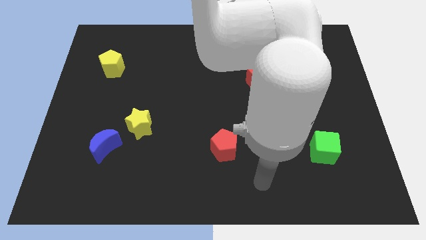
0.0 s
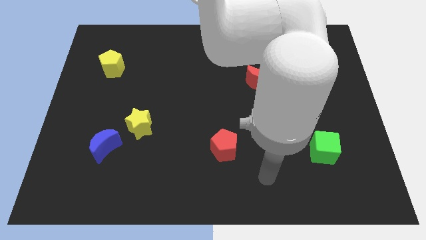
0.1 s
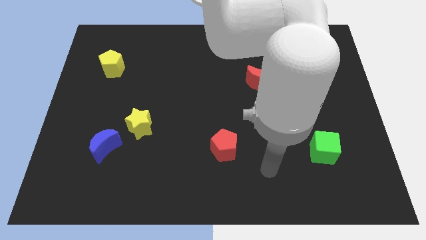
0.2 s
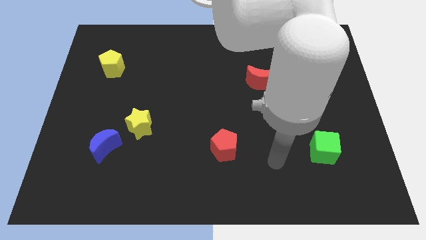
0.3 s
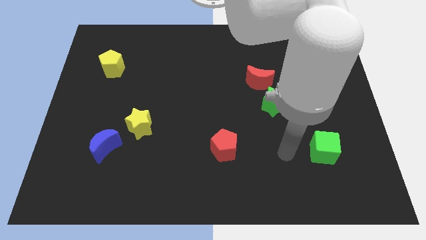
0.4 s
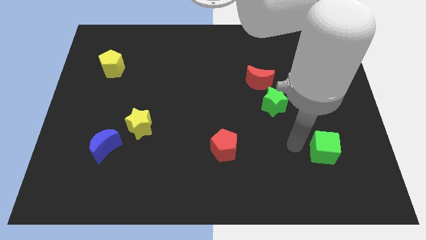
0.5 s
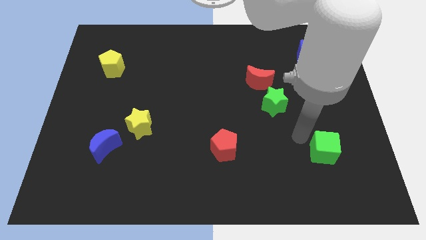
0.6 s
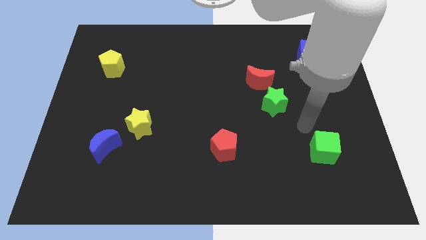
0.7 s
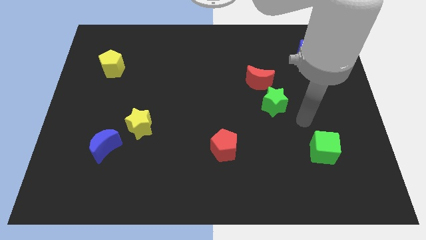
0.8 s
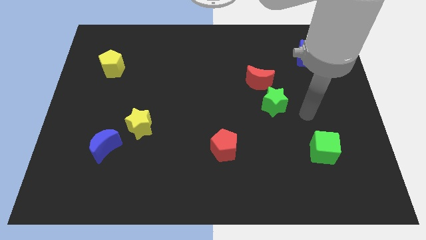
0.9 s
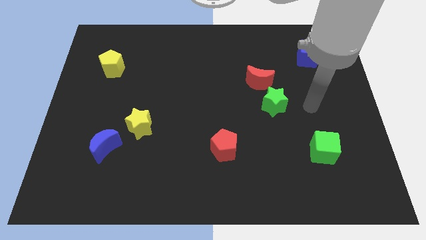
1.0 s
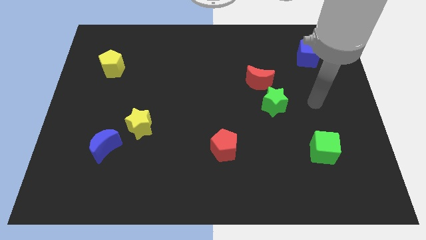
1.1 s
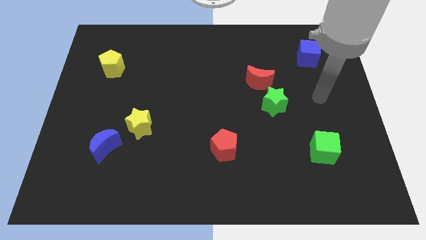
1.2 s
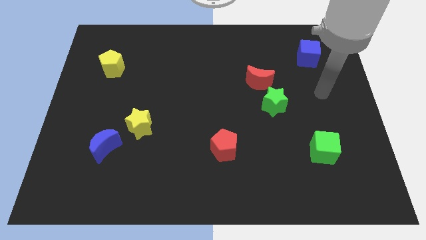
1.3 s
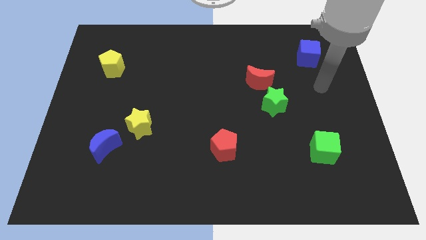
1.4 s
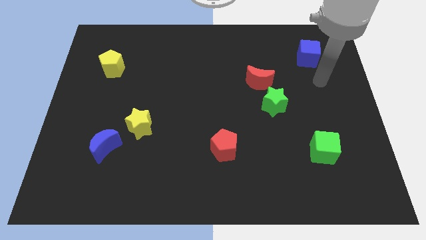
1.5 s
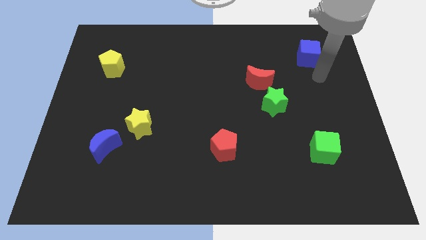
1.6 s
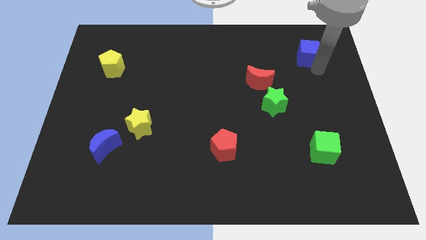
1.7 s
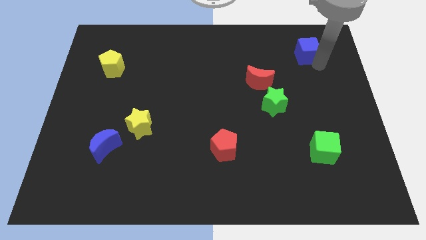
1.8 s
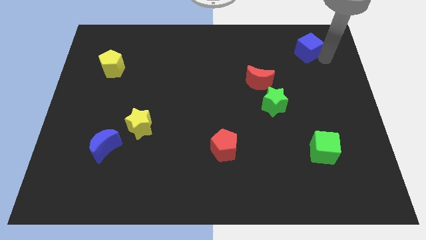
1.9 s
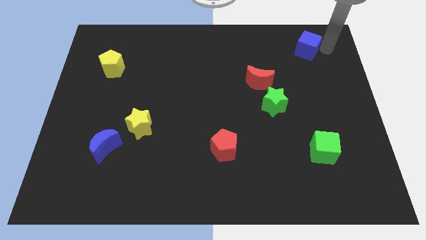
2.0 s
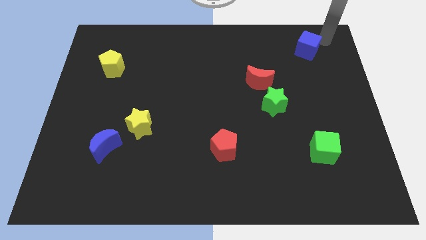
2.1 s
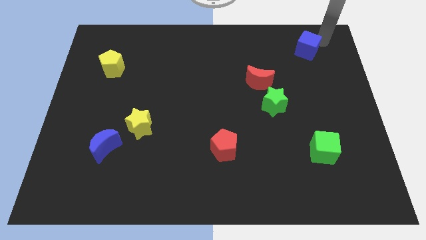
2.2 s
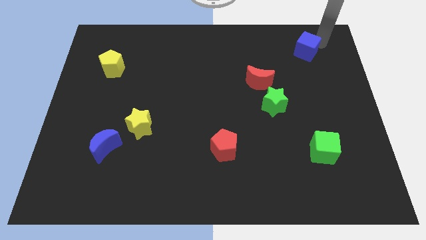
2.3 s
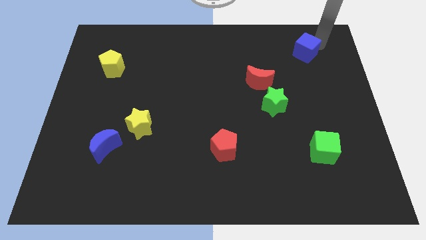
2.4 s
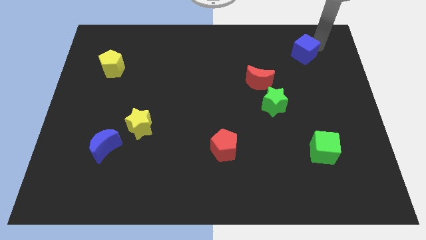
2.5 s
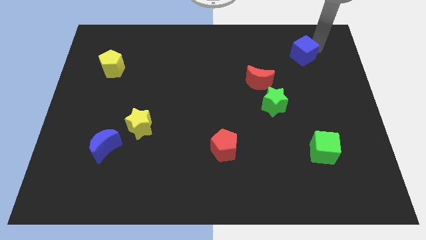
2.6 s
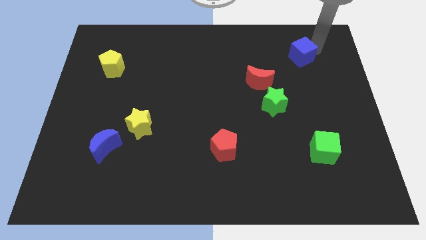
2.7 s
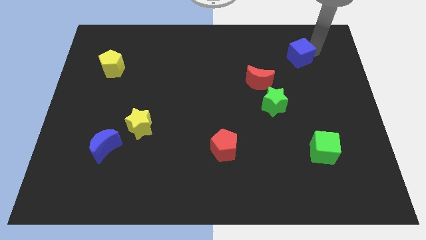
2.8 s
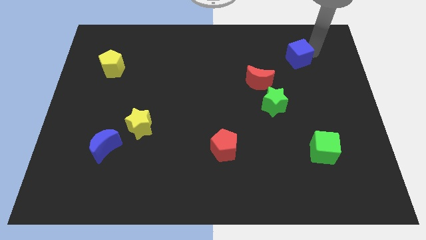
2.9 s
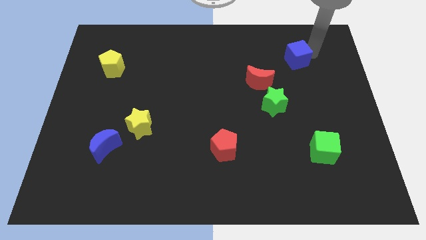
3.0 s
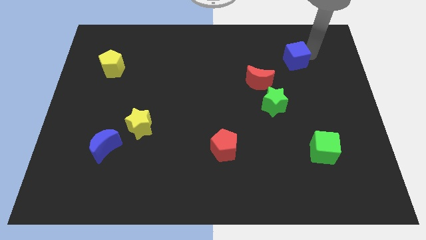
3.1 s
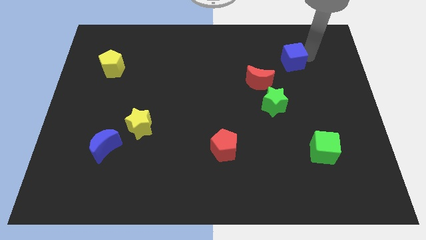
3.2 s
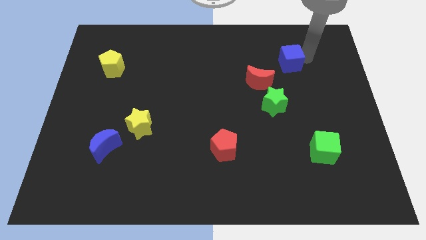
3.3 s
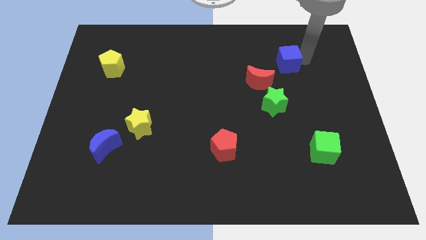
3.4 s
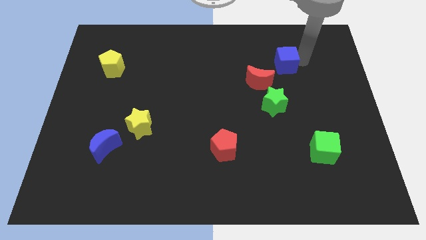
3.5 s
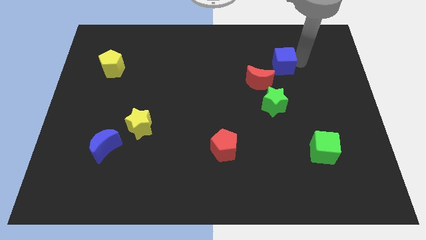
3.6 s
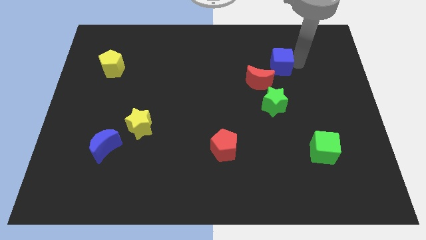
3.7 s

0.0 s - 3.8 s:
slide the blue cube down and then to the left slightly

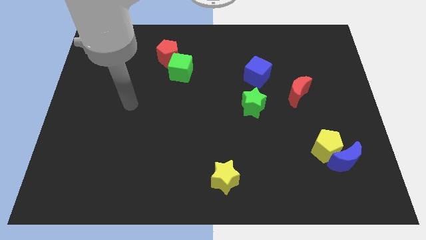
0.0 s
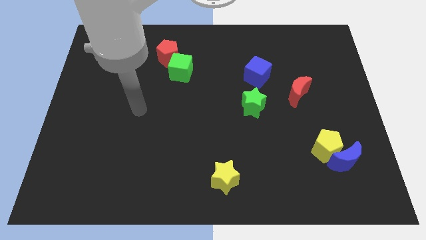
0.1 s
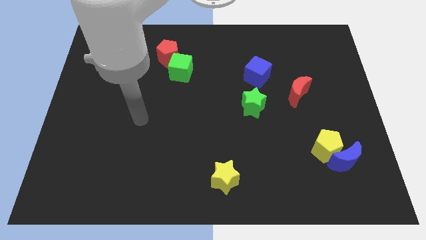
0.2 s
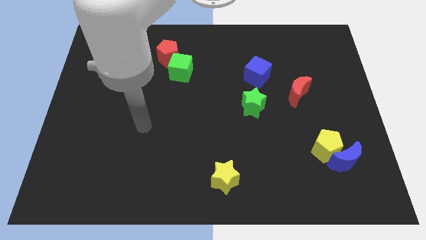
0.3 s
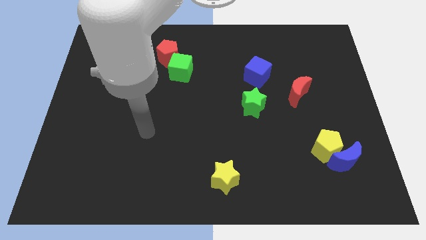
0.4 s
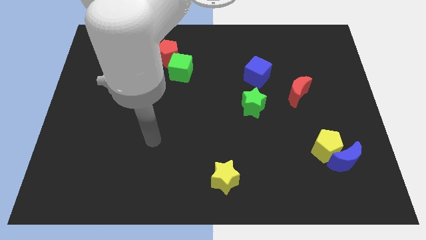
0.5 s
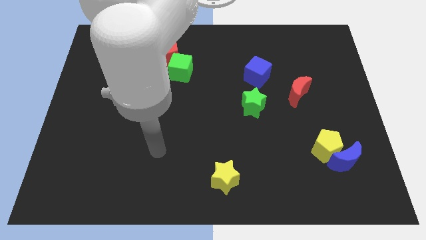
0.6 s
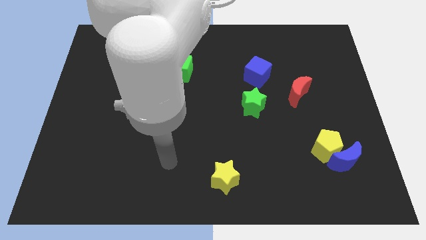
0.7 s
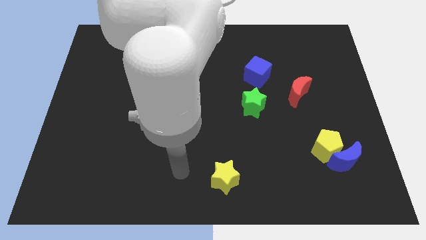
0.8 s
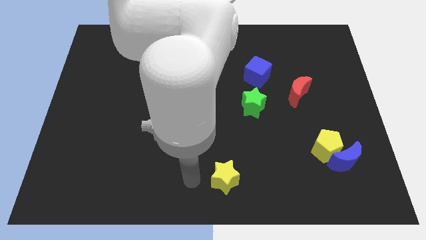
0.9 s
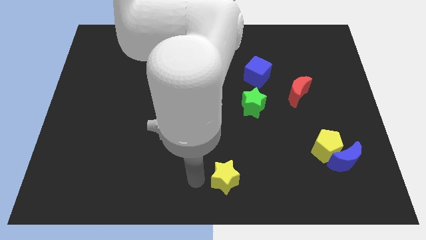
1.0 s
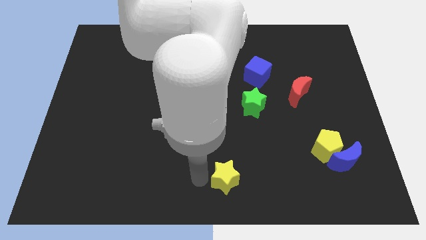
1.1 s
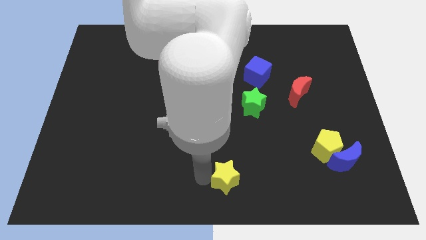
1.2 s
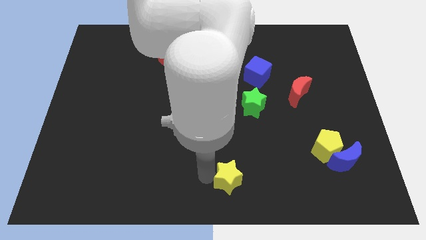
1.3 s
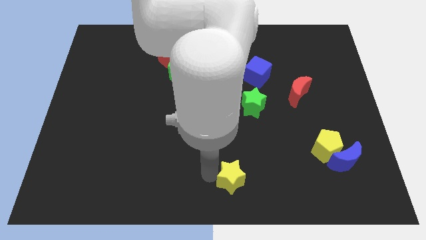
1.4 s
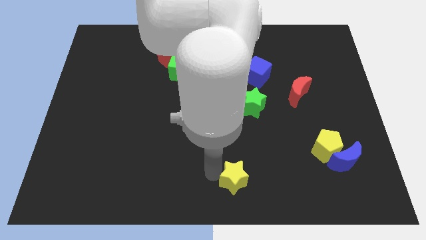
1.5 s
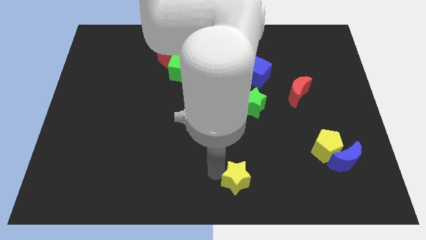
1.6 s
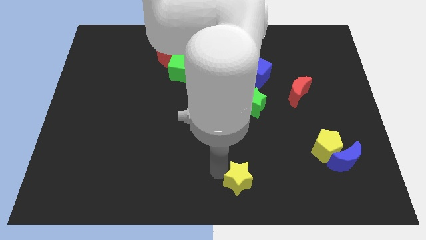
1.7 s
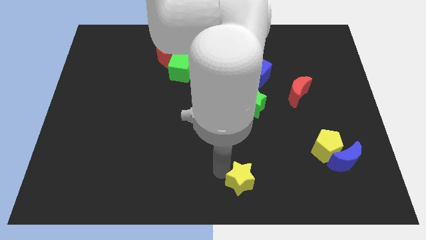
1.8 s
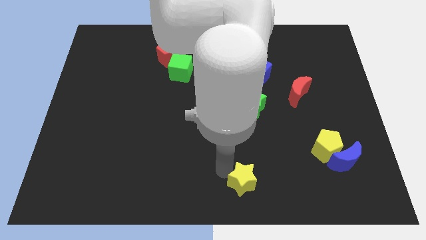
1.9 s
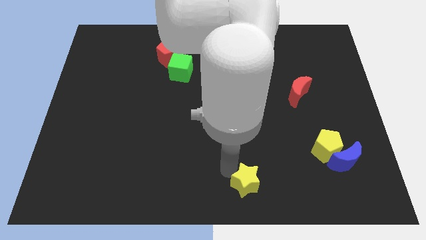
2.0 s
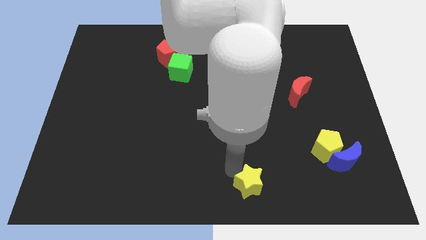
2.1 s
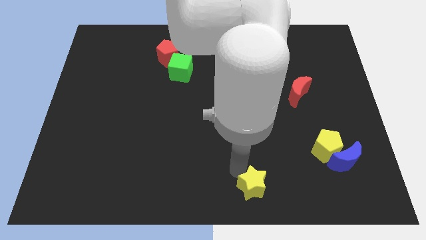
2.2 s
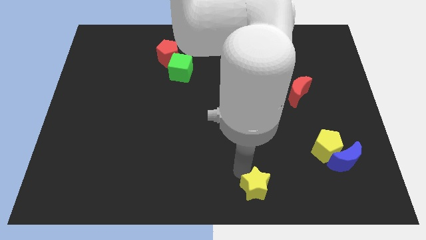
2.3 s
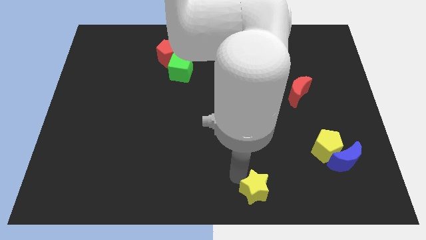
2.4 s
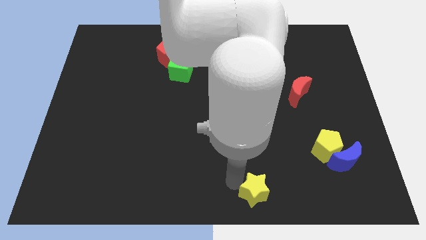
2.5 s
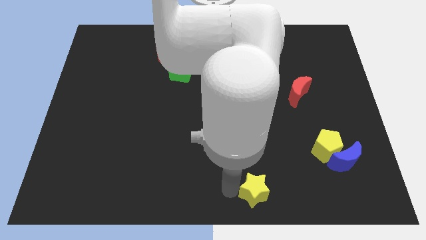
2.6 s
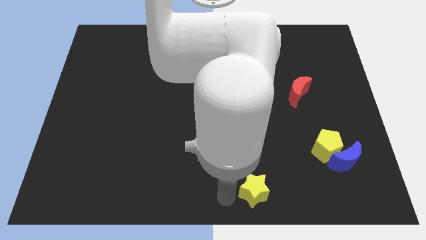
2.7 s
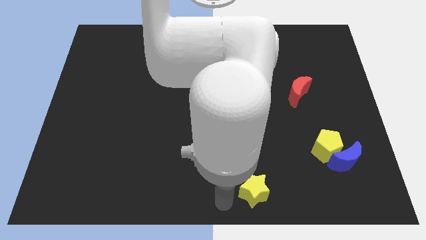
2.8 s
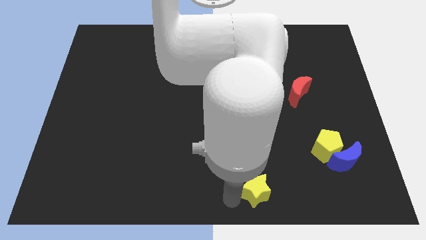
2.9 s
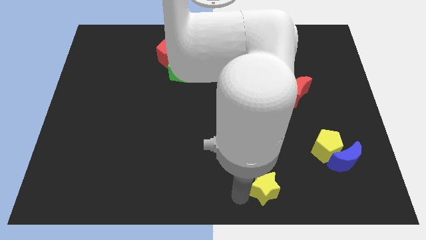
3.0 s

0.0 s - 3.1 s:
slightly move the yellow star right

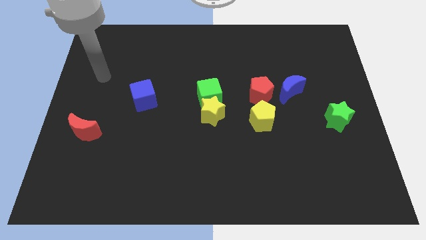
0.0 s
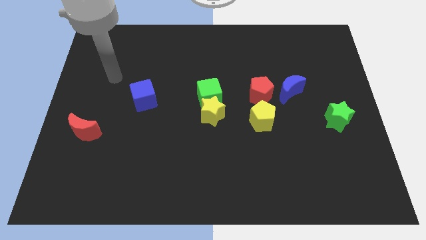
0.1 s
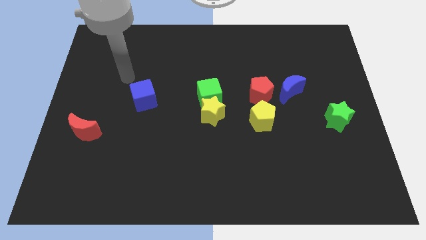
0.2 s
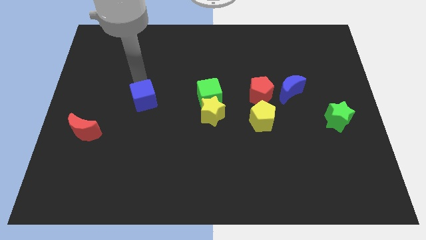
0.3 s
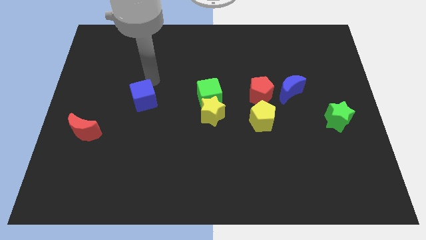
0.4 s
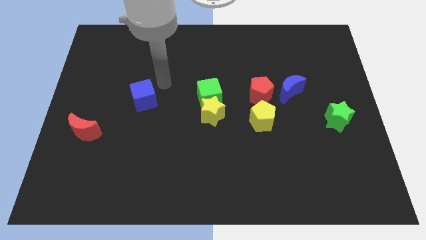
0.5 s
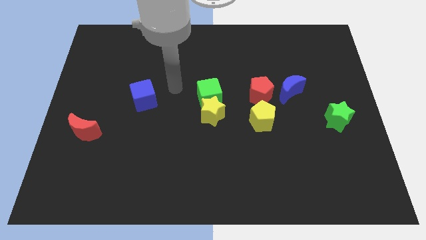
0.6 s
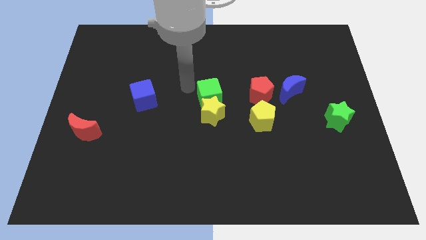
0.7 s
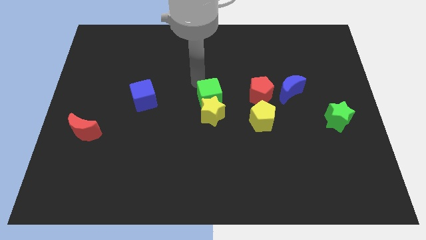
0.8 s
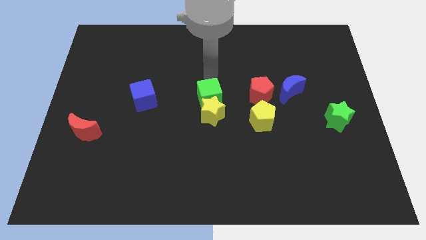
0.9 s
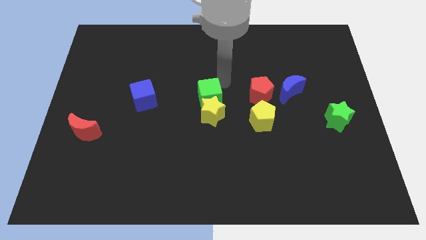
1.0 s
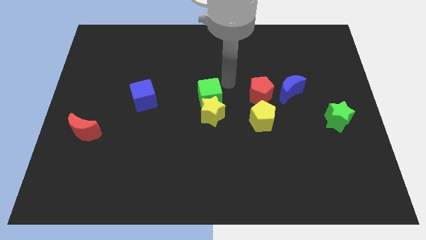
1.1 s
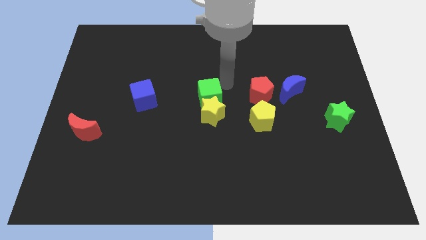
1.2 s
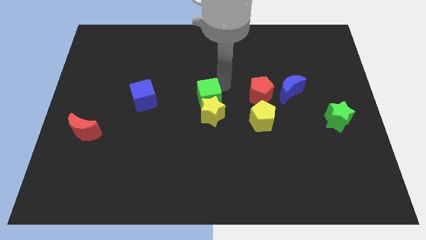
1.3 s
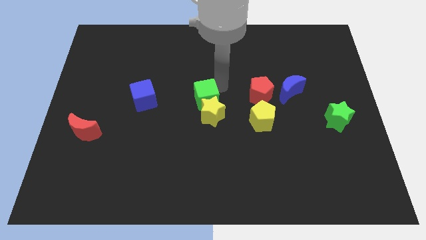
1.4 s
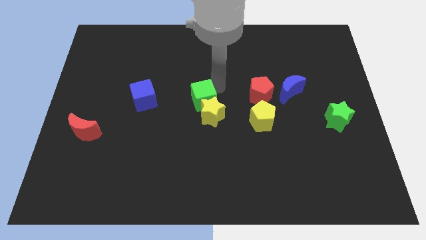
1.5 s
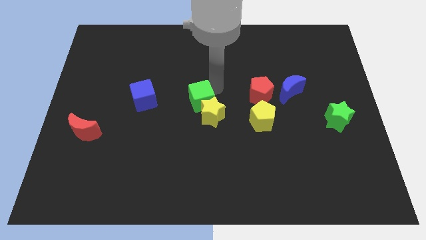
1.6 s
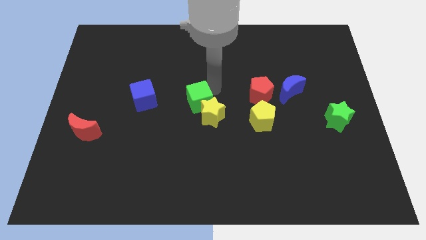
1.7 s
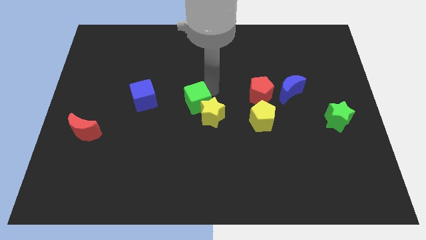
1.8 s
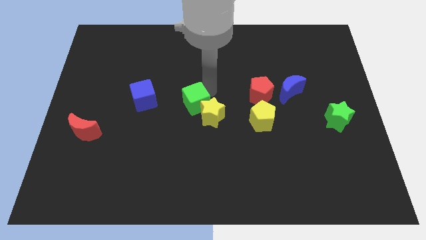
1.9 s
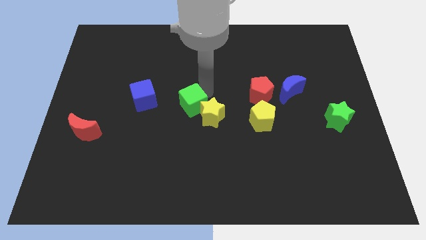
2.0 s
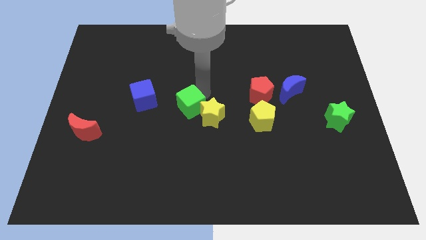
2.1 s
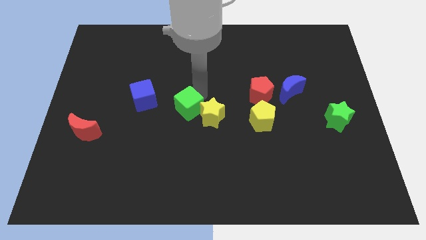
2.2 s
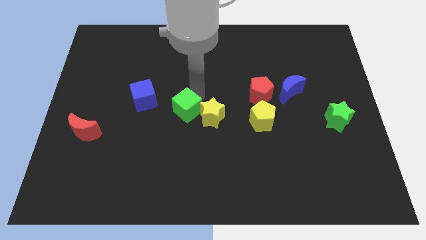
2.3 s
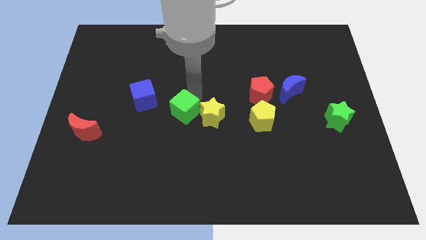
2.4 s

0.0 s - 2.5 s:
move the green cube a bit down and to the left
